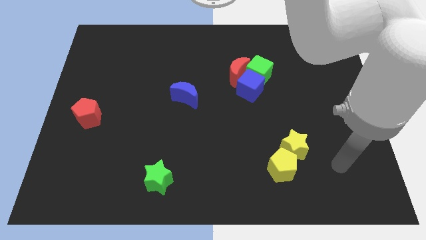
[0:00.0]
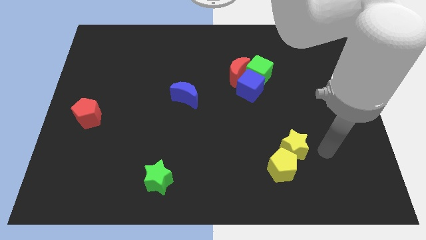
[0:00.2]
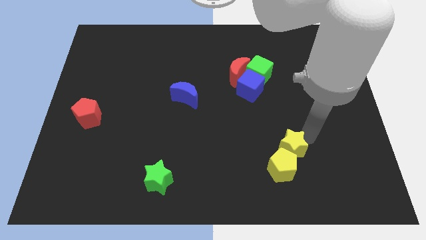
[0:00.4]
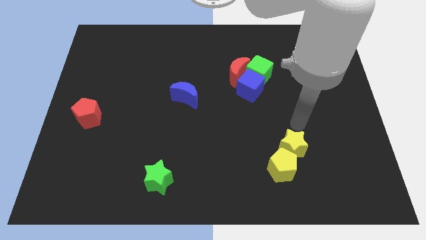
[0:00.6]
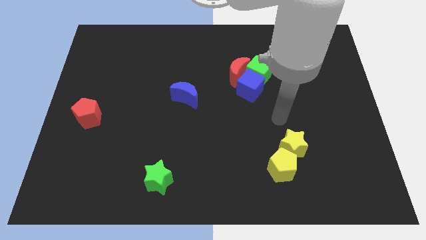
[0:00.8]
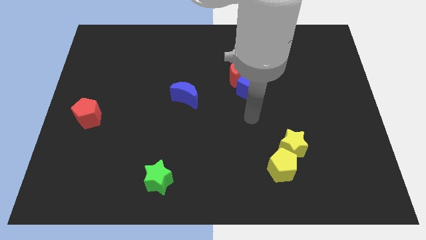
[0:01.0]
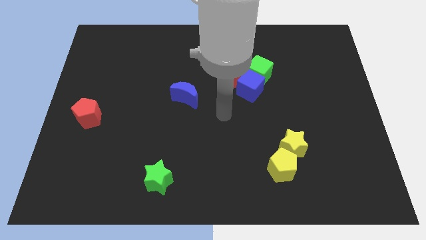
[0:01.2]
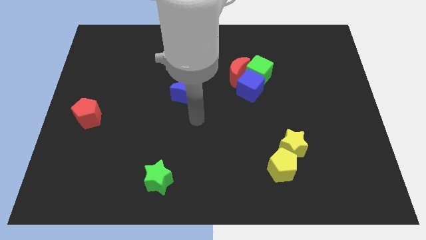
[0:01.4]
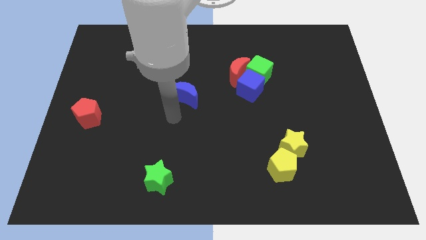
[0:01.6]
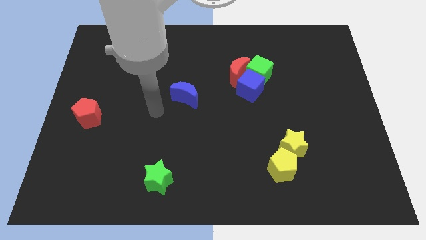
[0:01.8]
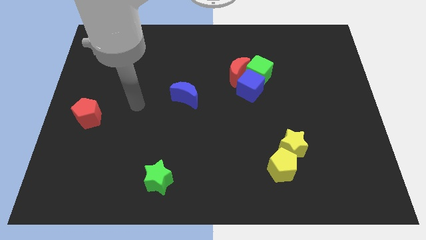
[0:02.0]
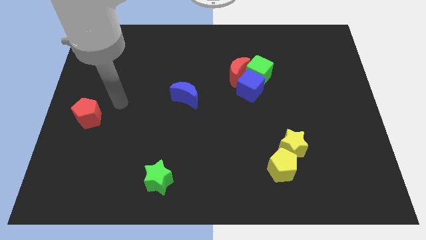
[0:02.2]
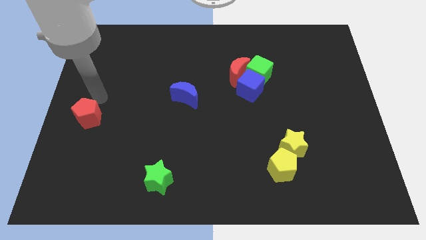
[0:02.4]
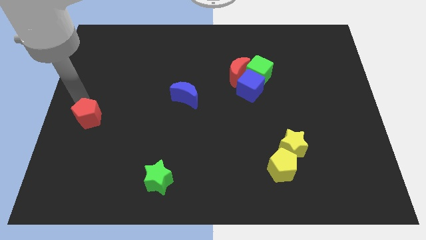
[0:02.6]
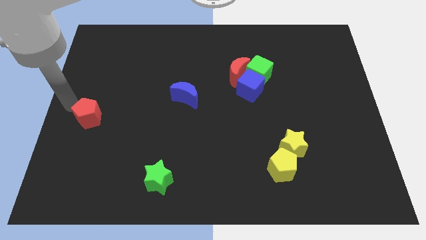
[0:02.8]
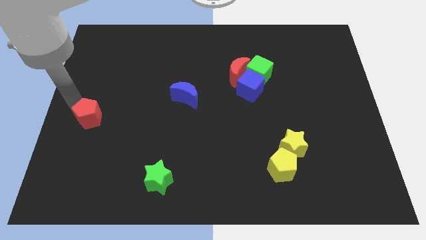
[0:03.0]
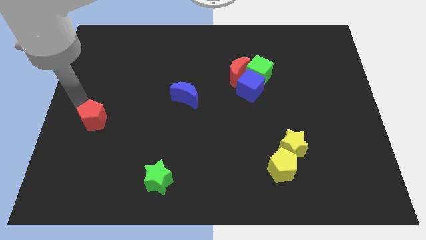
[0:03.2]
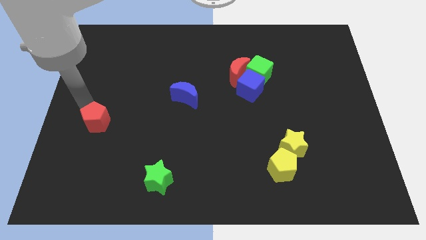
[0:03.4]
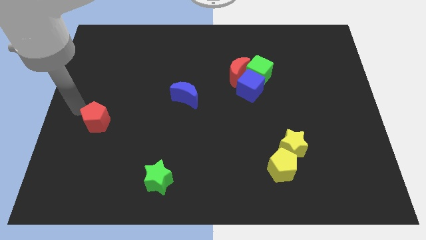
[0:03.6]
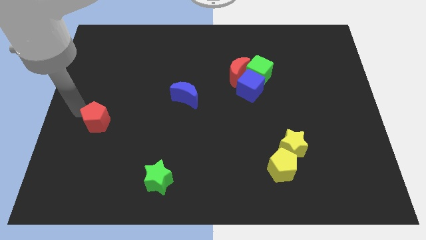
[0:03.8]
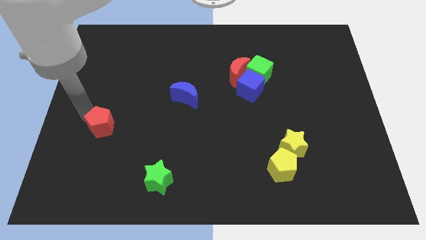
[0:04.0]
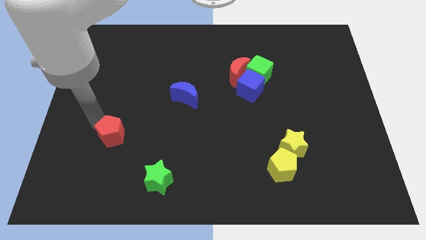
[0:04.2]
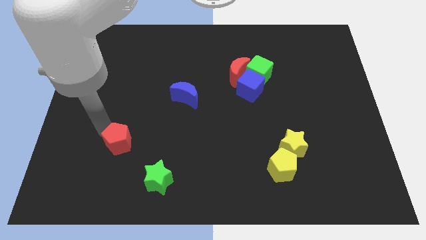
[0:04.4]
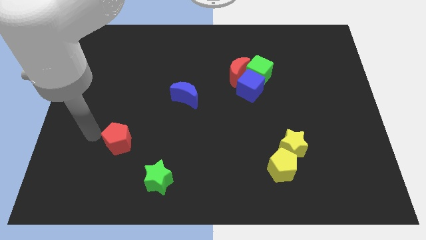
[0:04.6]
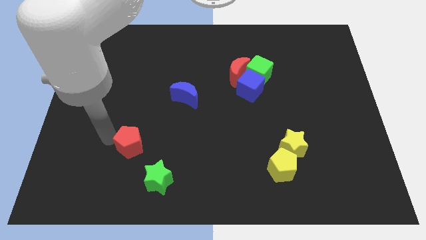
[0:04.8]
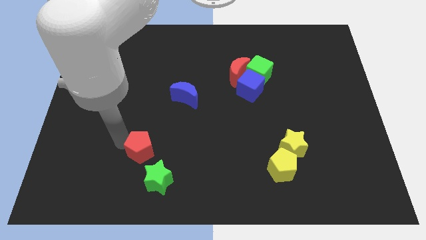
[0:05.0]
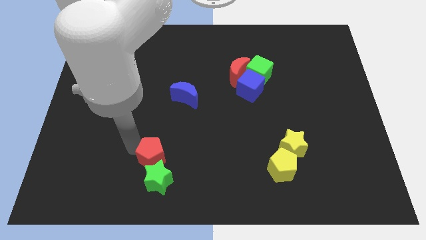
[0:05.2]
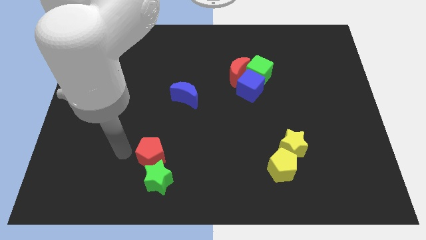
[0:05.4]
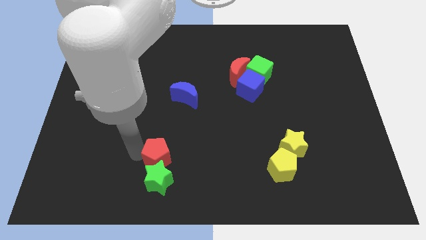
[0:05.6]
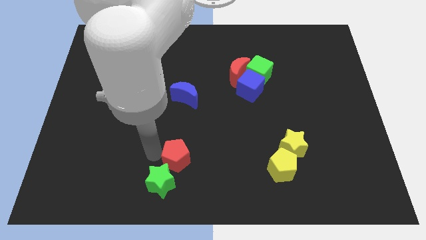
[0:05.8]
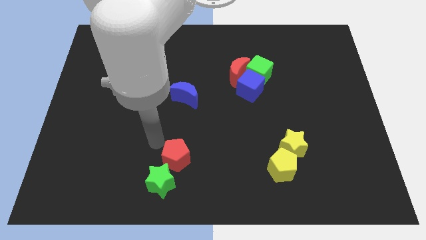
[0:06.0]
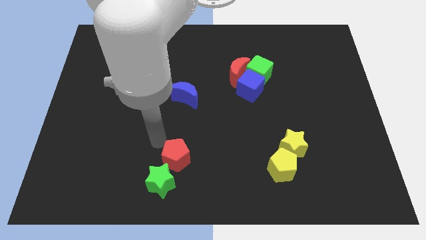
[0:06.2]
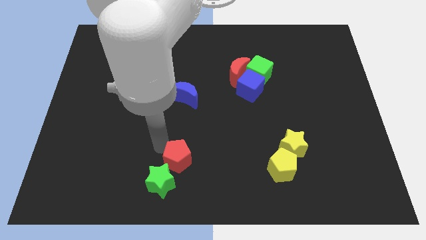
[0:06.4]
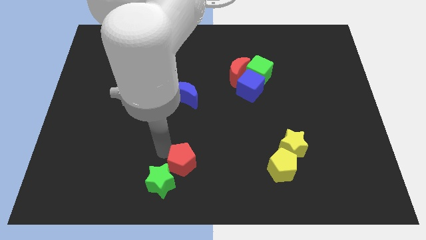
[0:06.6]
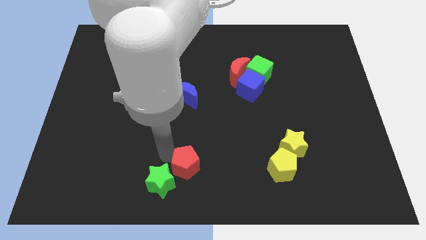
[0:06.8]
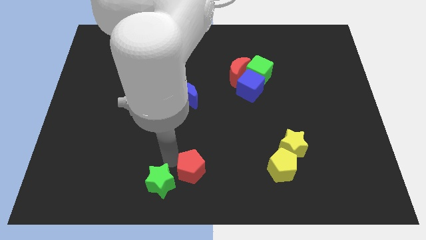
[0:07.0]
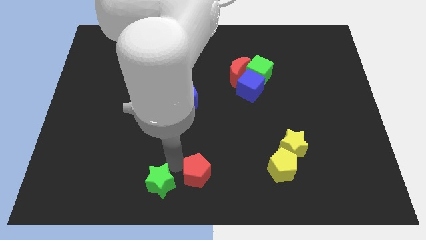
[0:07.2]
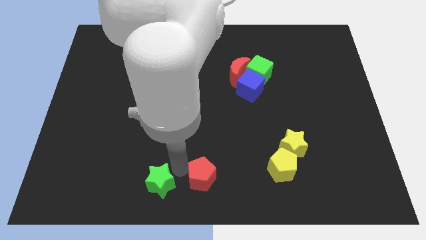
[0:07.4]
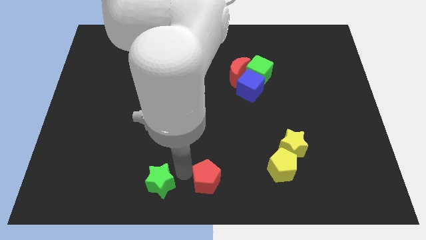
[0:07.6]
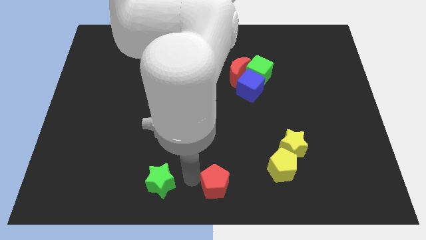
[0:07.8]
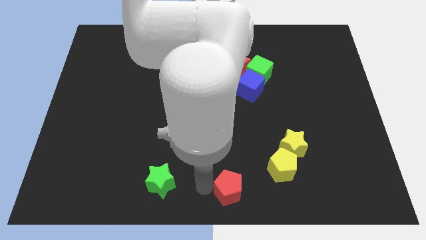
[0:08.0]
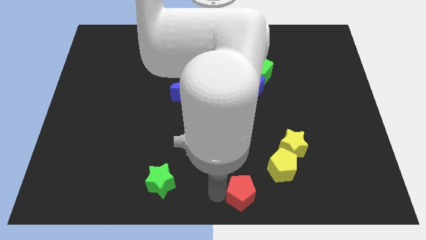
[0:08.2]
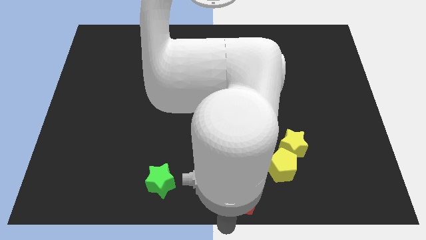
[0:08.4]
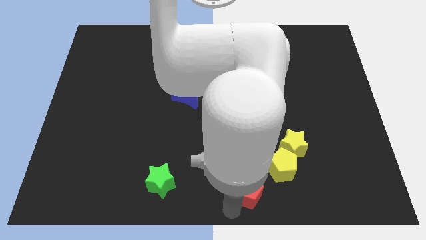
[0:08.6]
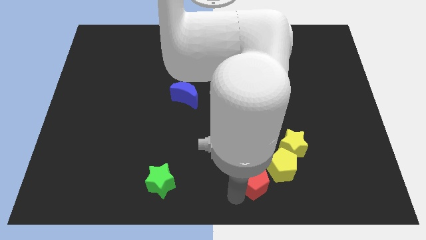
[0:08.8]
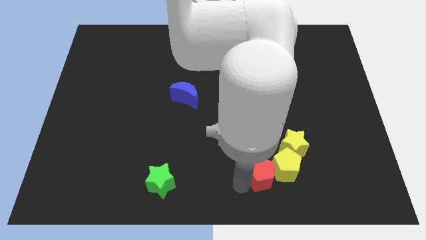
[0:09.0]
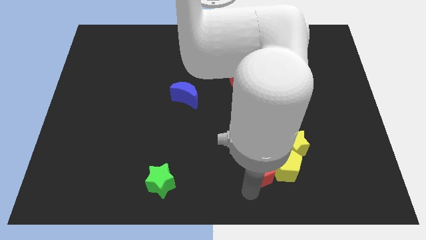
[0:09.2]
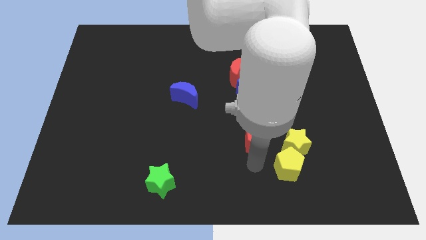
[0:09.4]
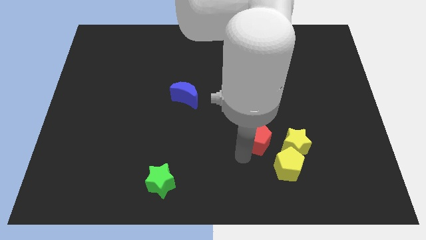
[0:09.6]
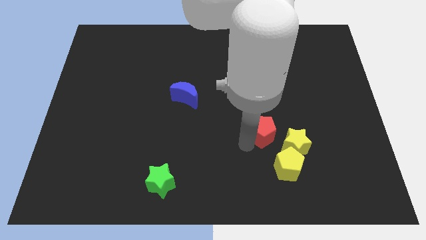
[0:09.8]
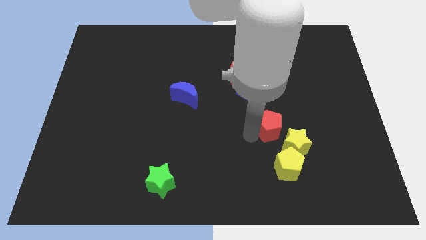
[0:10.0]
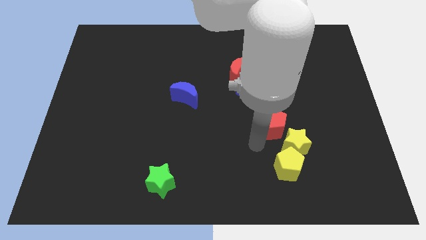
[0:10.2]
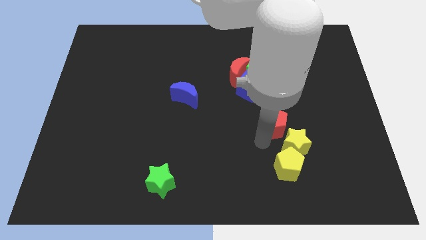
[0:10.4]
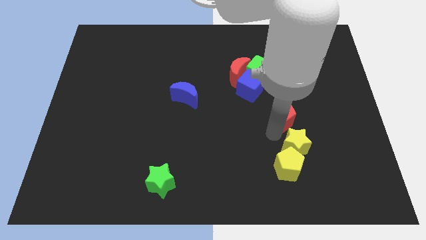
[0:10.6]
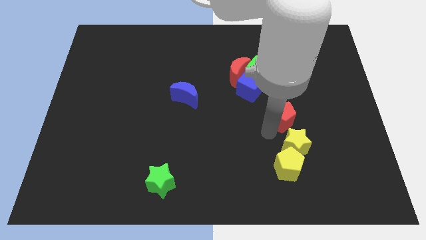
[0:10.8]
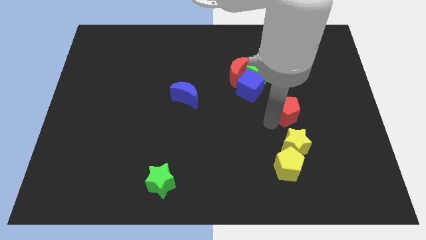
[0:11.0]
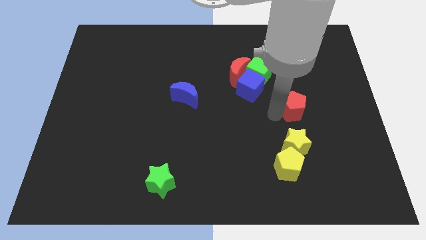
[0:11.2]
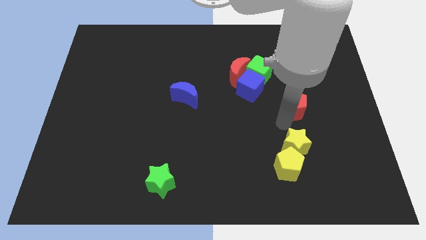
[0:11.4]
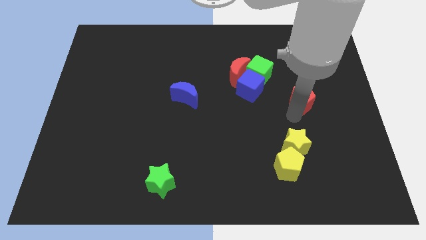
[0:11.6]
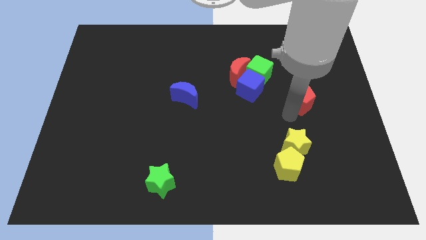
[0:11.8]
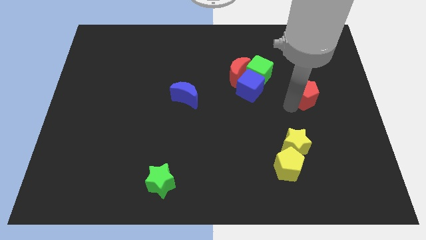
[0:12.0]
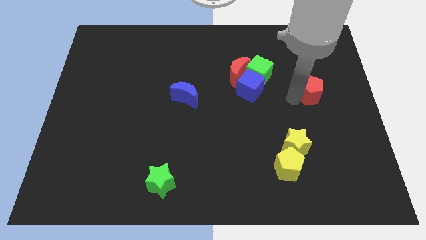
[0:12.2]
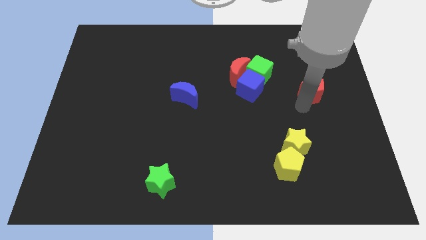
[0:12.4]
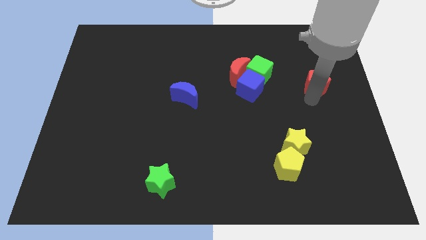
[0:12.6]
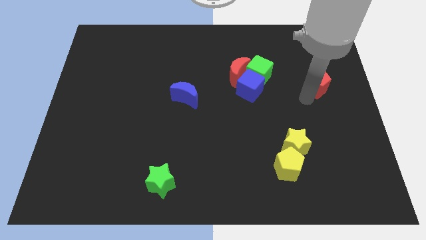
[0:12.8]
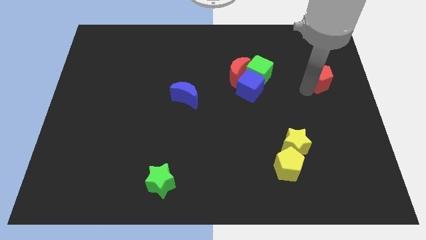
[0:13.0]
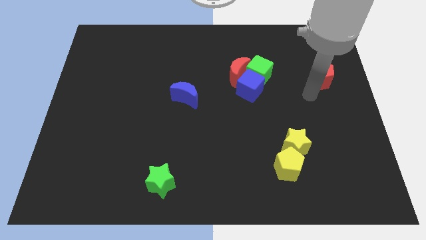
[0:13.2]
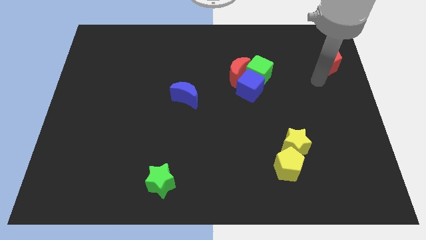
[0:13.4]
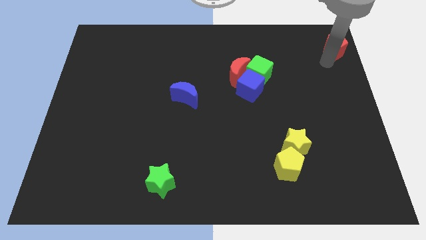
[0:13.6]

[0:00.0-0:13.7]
slide the red pentagon to the top right corner
